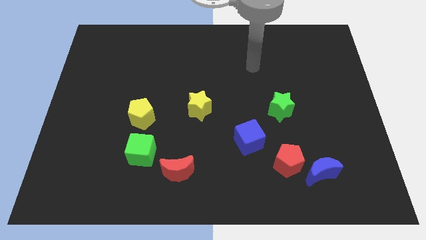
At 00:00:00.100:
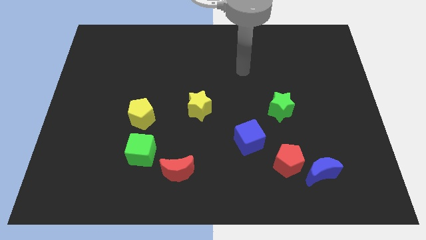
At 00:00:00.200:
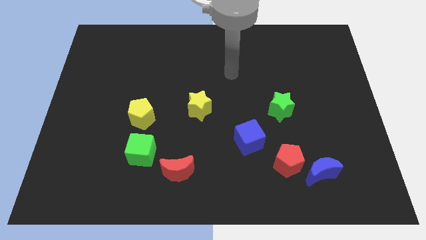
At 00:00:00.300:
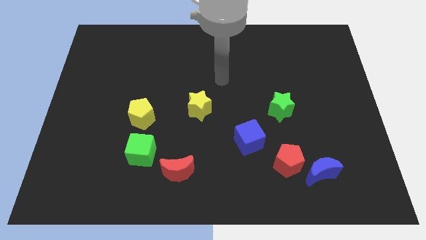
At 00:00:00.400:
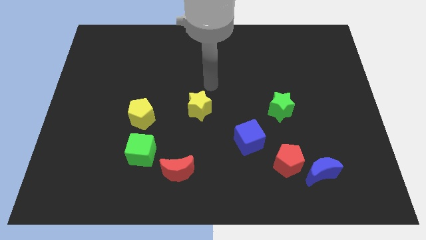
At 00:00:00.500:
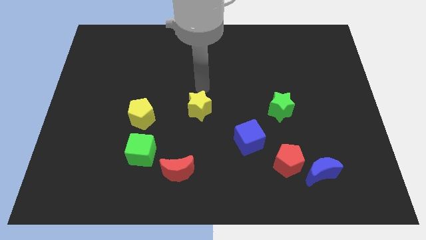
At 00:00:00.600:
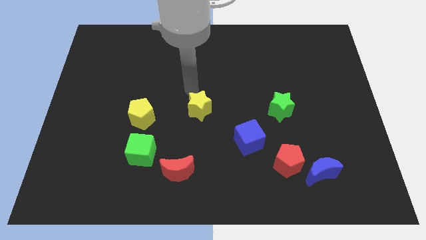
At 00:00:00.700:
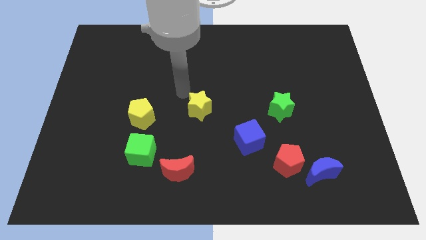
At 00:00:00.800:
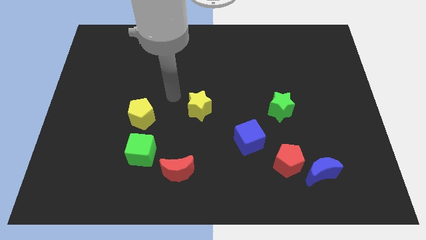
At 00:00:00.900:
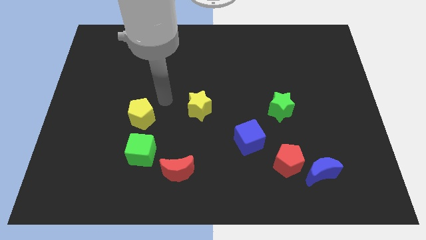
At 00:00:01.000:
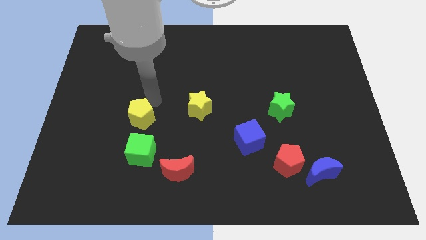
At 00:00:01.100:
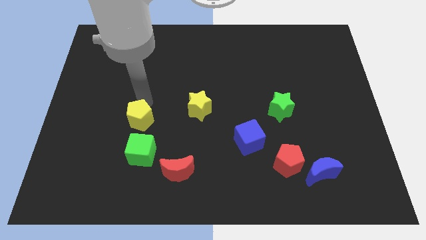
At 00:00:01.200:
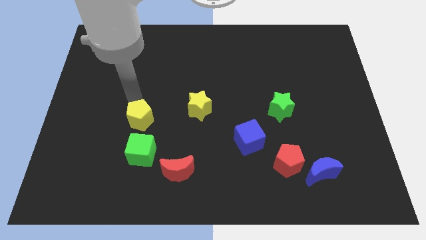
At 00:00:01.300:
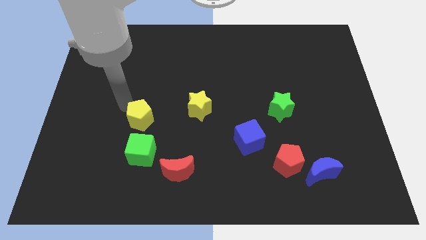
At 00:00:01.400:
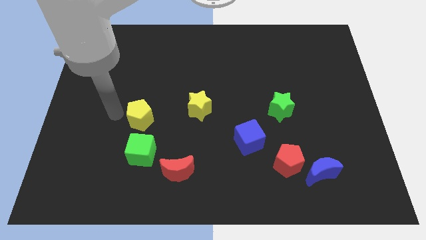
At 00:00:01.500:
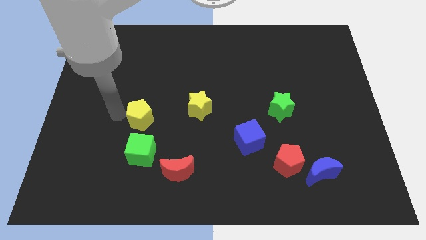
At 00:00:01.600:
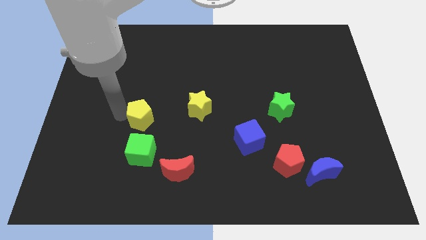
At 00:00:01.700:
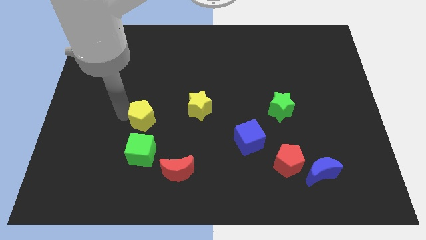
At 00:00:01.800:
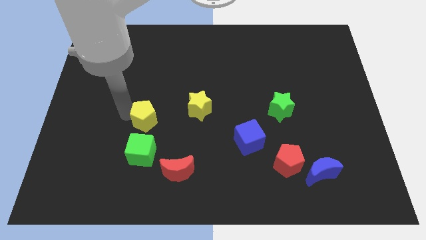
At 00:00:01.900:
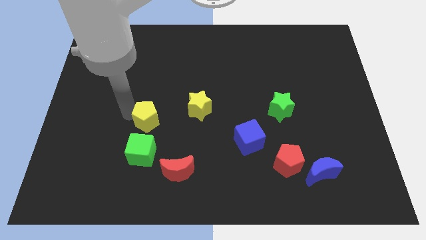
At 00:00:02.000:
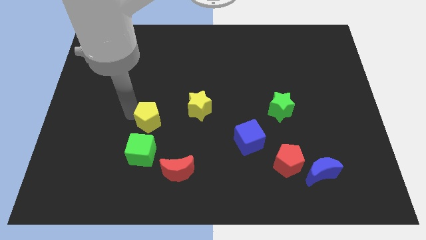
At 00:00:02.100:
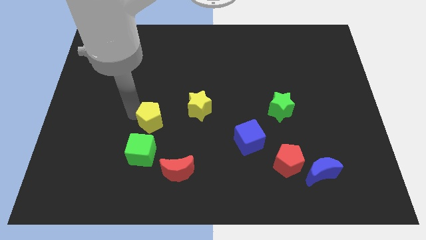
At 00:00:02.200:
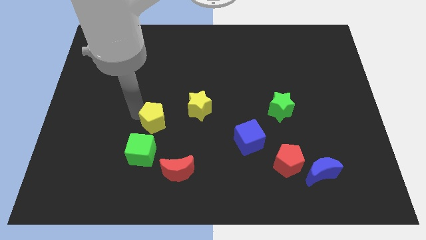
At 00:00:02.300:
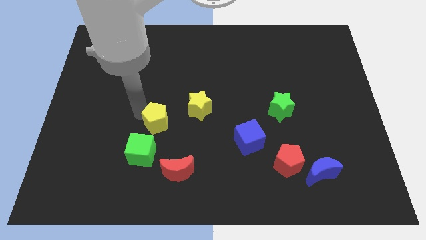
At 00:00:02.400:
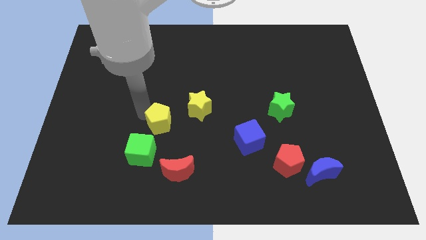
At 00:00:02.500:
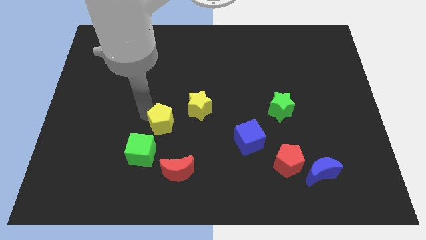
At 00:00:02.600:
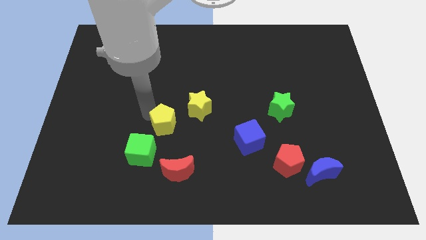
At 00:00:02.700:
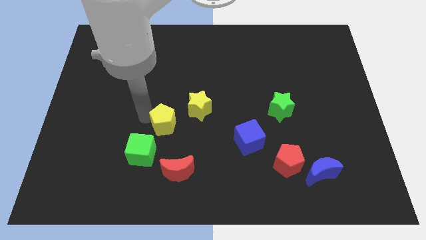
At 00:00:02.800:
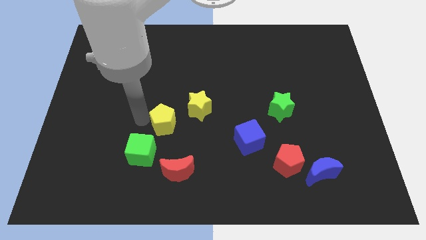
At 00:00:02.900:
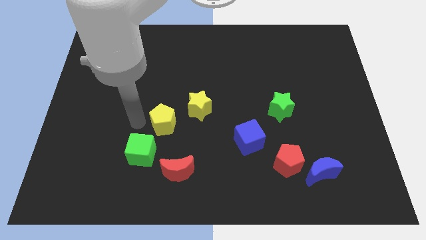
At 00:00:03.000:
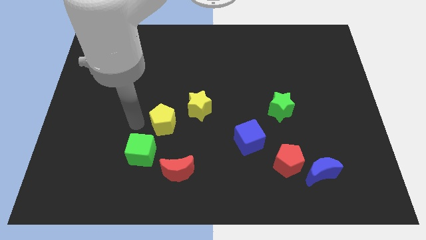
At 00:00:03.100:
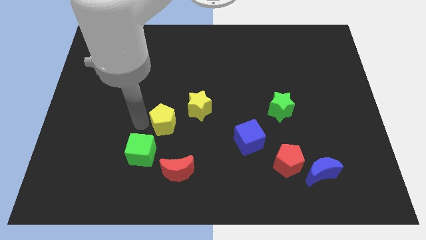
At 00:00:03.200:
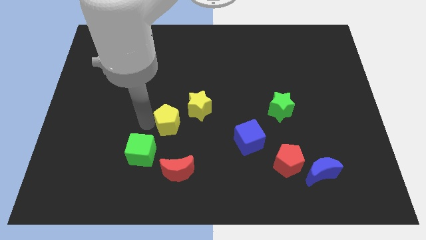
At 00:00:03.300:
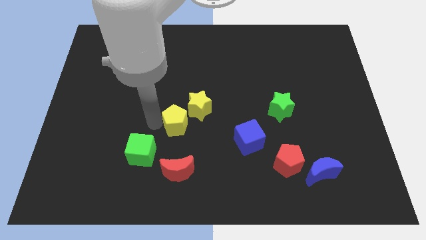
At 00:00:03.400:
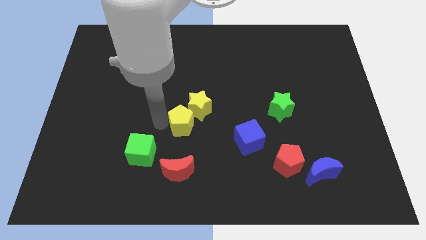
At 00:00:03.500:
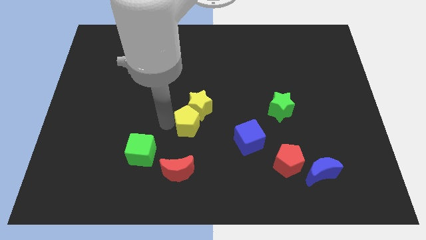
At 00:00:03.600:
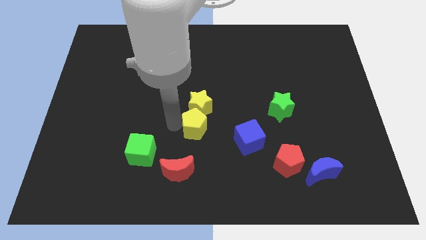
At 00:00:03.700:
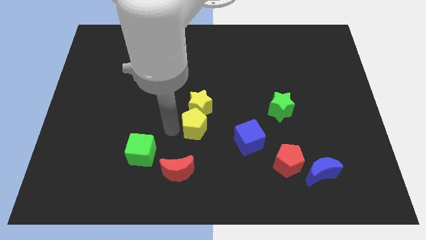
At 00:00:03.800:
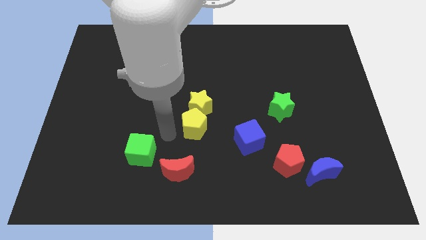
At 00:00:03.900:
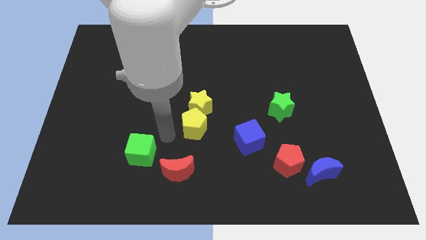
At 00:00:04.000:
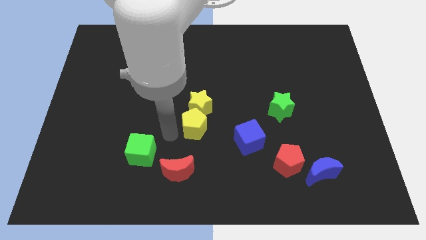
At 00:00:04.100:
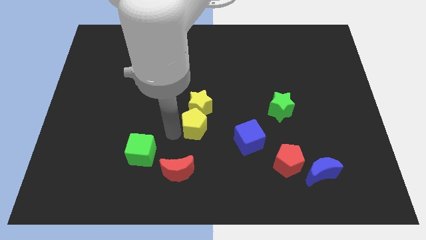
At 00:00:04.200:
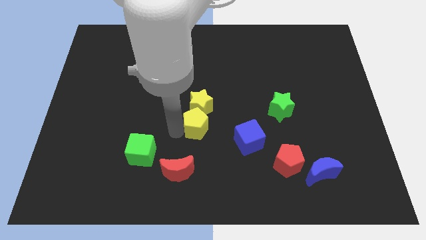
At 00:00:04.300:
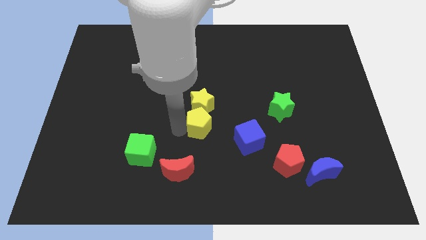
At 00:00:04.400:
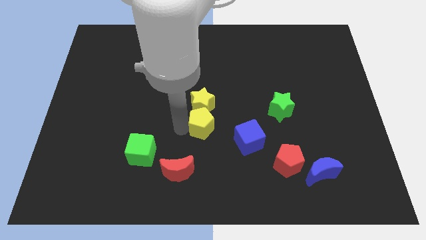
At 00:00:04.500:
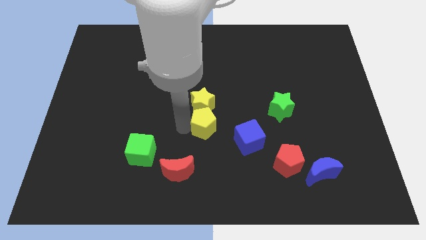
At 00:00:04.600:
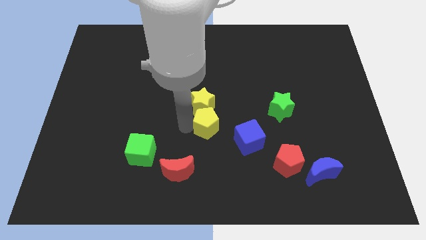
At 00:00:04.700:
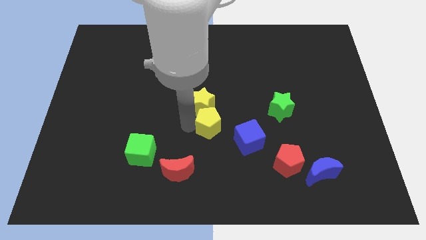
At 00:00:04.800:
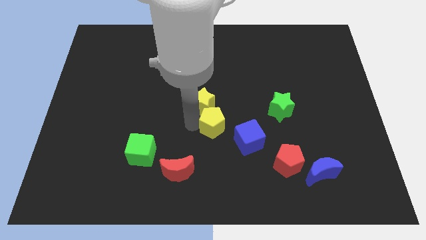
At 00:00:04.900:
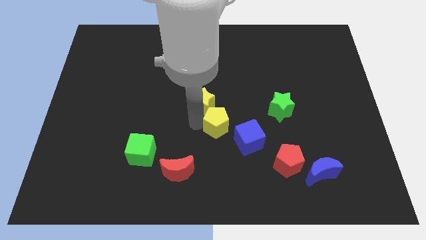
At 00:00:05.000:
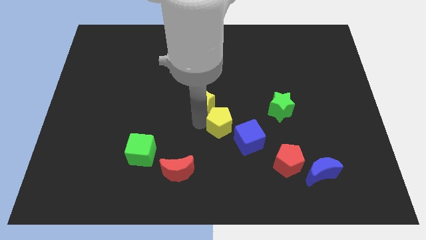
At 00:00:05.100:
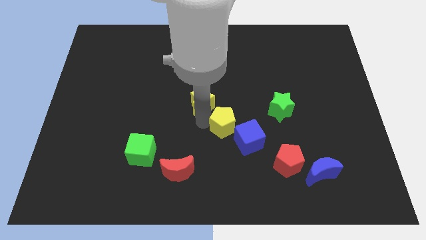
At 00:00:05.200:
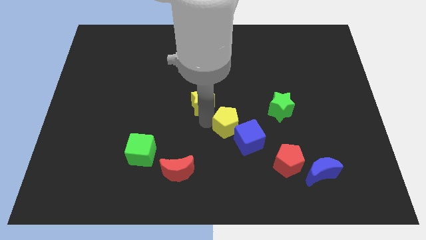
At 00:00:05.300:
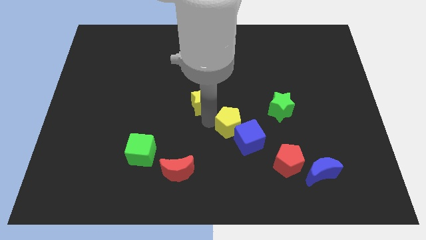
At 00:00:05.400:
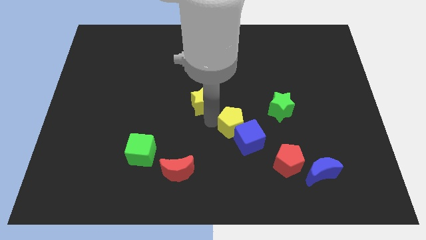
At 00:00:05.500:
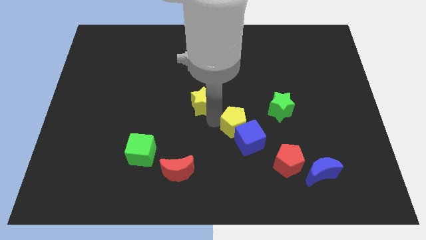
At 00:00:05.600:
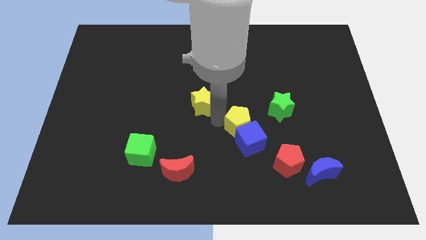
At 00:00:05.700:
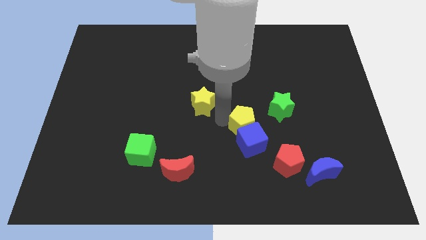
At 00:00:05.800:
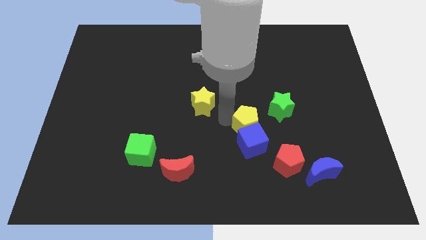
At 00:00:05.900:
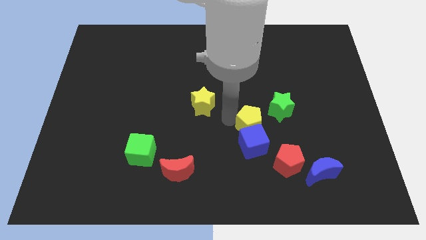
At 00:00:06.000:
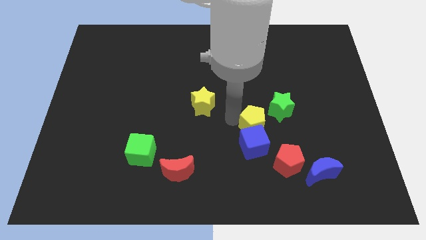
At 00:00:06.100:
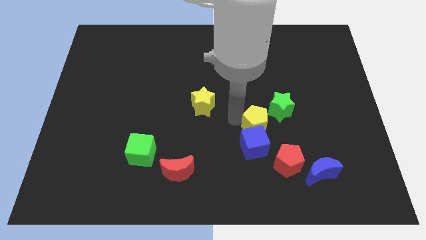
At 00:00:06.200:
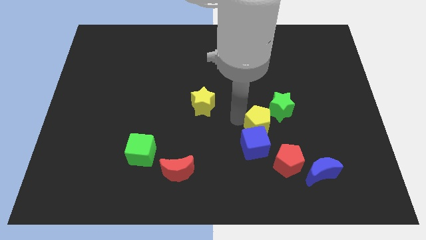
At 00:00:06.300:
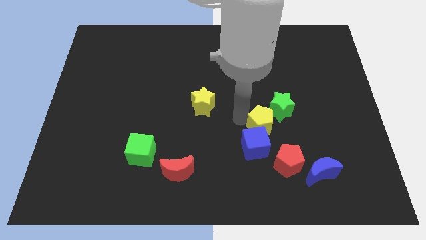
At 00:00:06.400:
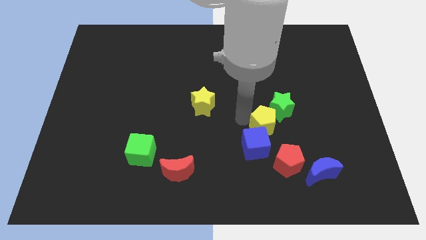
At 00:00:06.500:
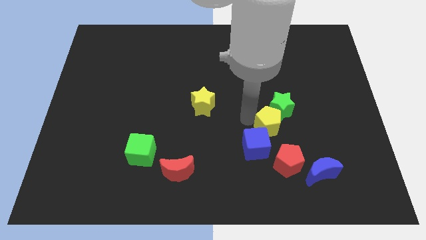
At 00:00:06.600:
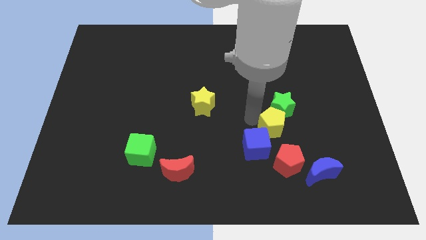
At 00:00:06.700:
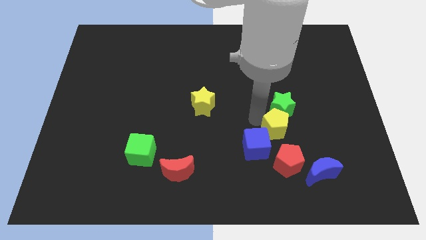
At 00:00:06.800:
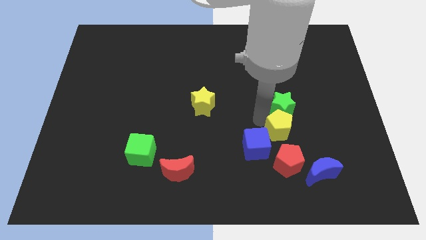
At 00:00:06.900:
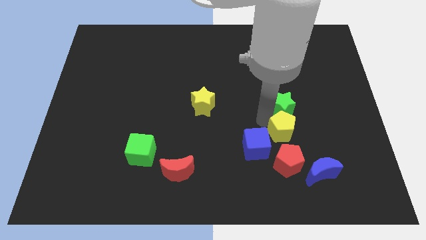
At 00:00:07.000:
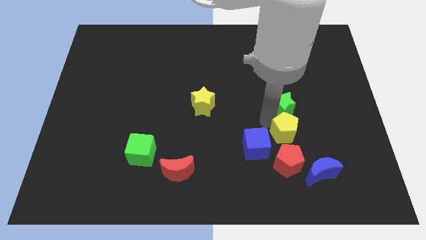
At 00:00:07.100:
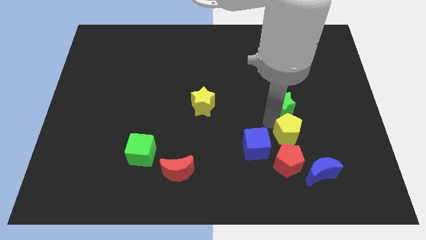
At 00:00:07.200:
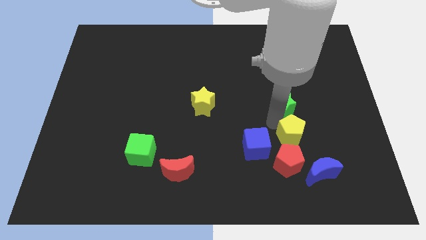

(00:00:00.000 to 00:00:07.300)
push the yellow pentagon above the blue moon
